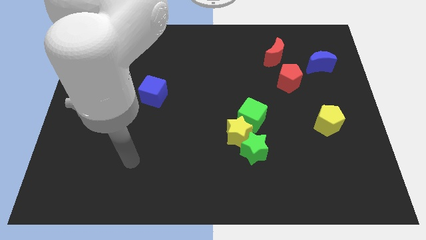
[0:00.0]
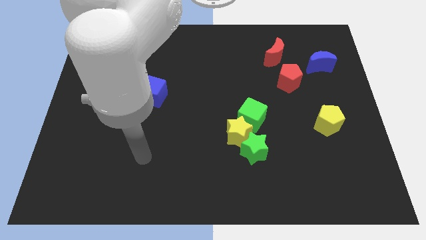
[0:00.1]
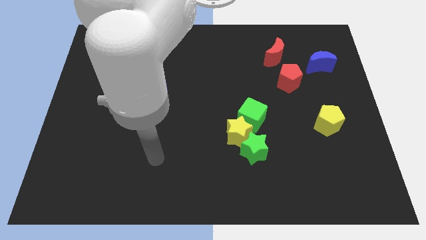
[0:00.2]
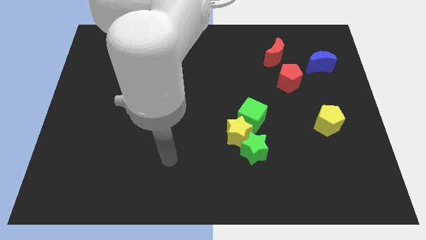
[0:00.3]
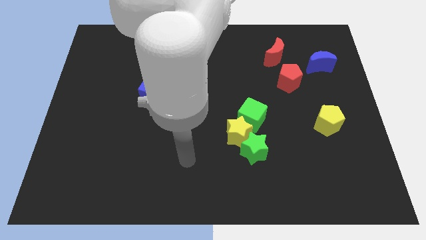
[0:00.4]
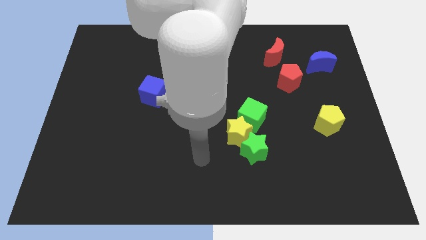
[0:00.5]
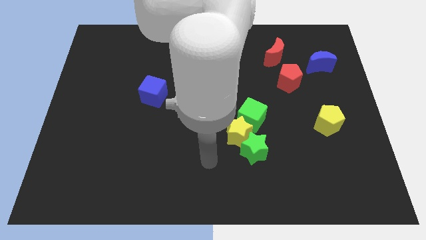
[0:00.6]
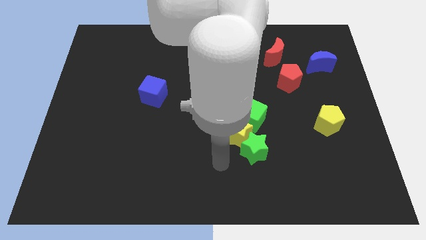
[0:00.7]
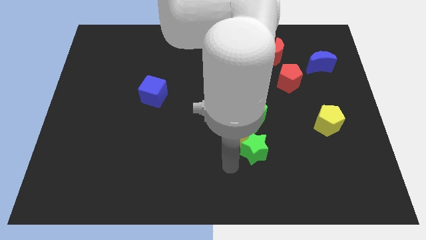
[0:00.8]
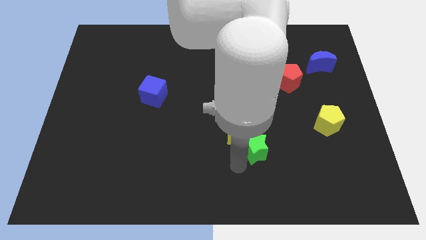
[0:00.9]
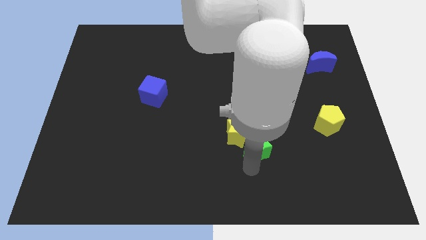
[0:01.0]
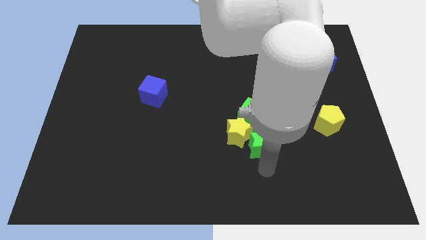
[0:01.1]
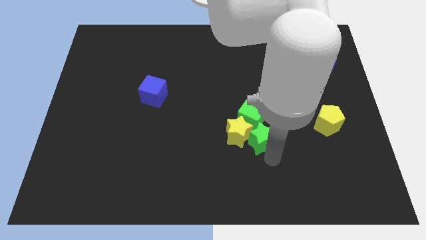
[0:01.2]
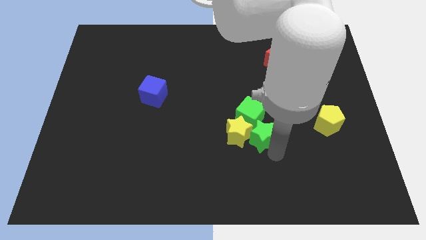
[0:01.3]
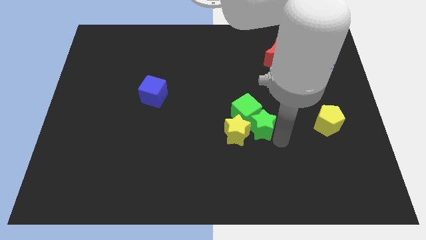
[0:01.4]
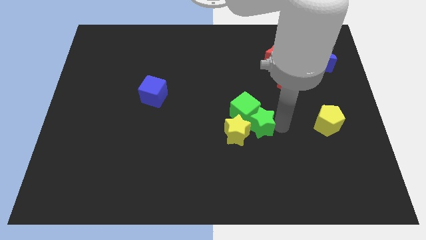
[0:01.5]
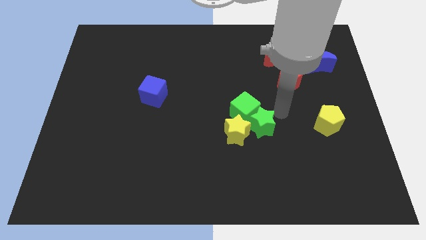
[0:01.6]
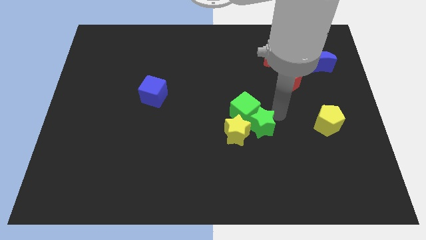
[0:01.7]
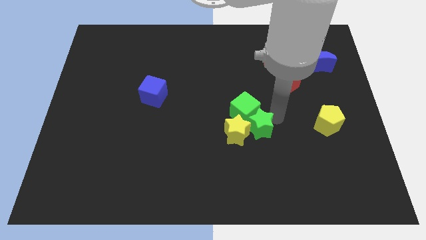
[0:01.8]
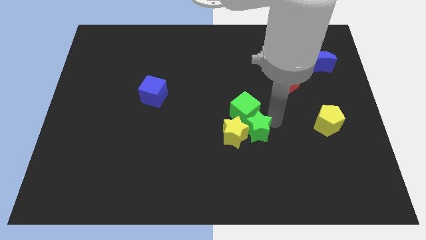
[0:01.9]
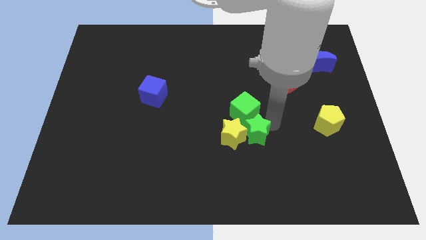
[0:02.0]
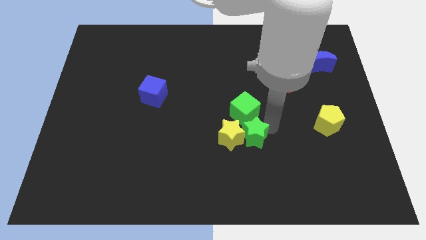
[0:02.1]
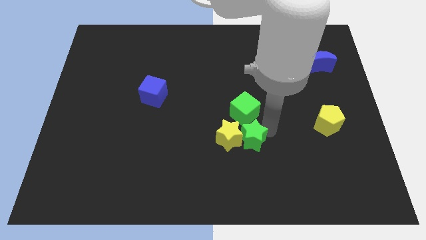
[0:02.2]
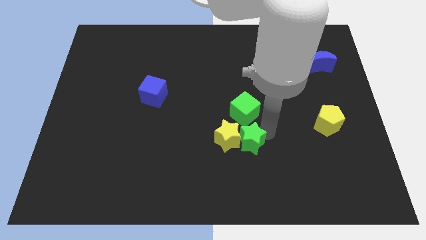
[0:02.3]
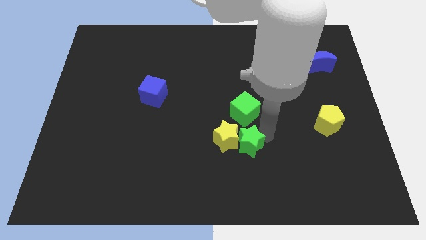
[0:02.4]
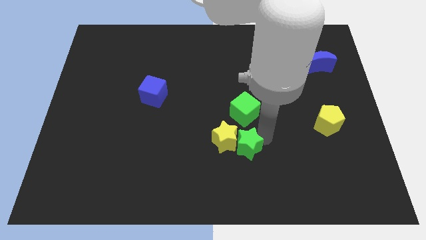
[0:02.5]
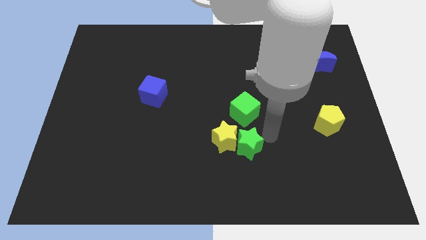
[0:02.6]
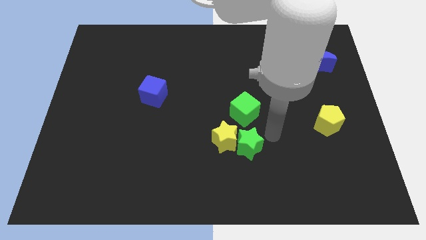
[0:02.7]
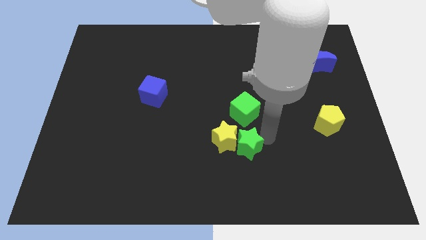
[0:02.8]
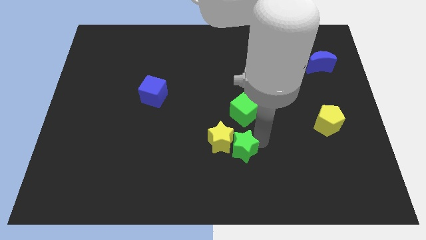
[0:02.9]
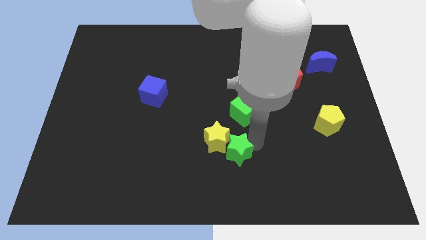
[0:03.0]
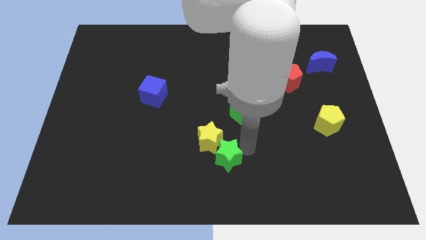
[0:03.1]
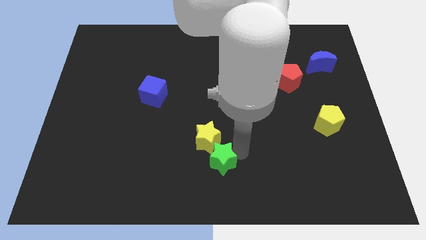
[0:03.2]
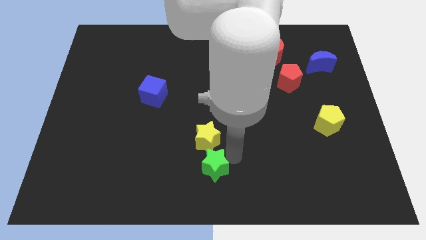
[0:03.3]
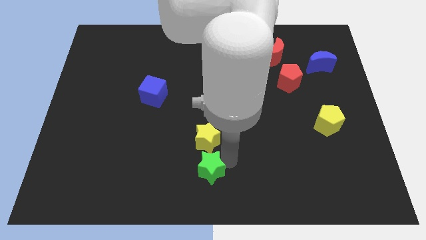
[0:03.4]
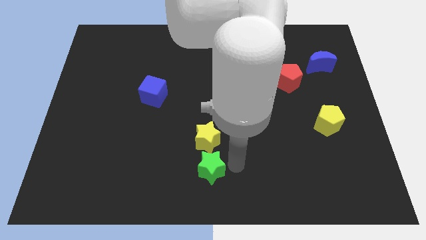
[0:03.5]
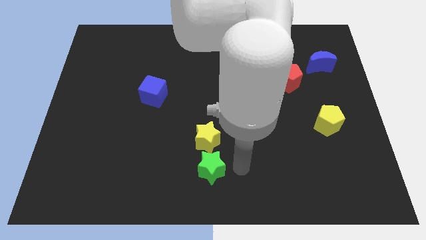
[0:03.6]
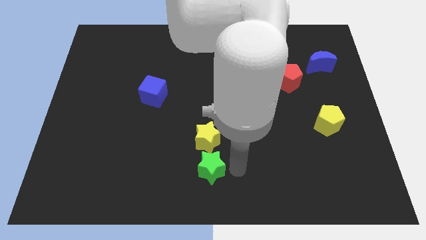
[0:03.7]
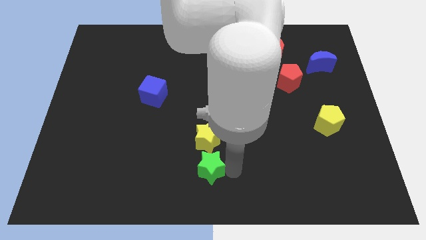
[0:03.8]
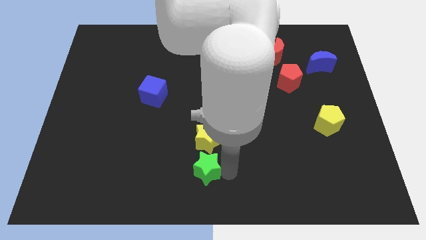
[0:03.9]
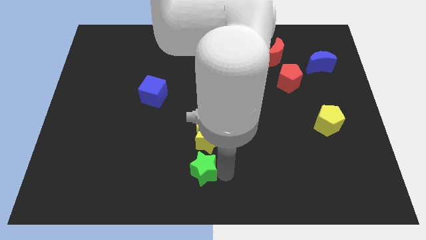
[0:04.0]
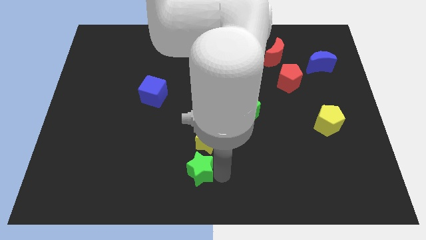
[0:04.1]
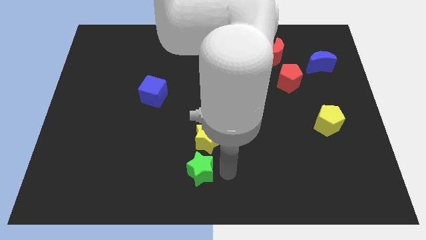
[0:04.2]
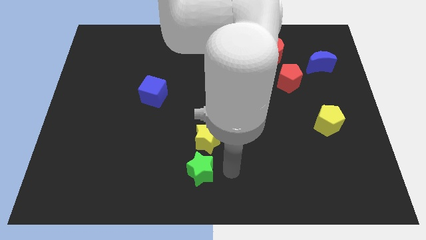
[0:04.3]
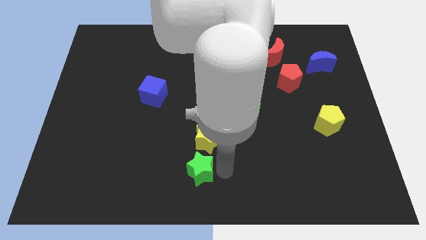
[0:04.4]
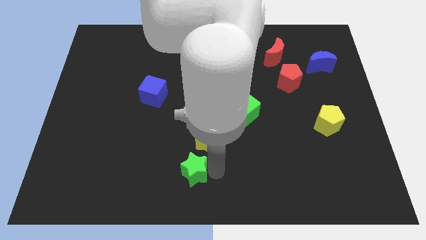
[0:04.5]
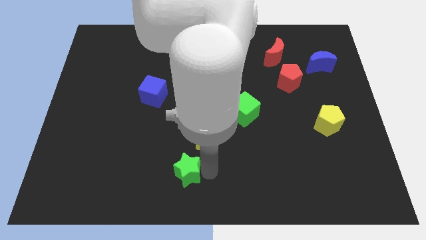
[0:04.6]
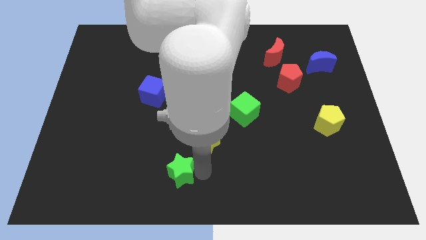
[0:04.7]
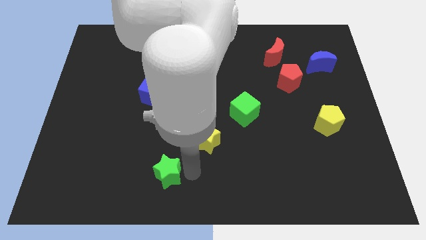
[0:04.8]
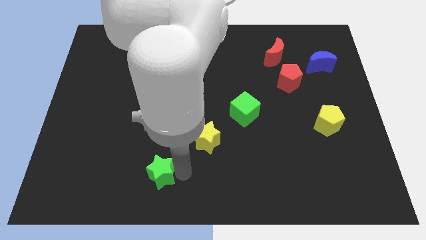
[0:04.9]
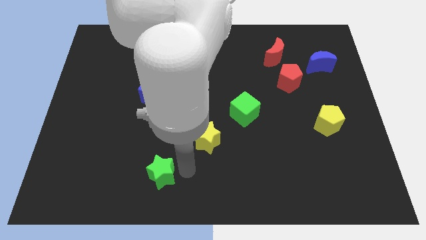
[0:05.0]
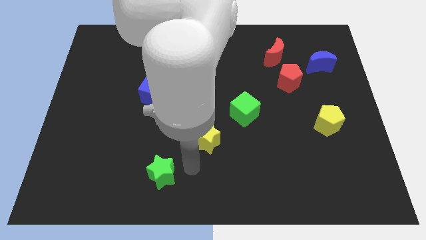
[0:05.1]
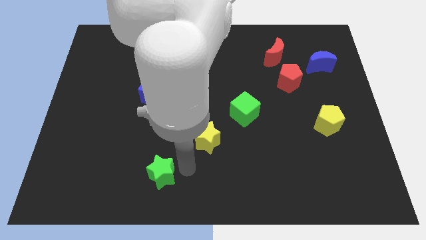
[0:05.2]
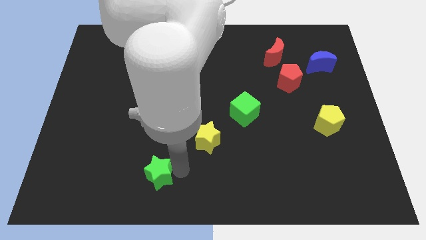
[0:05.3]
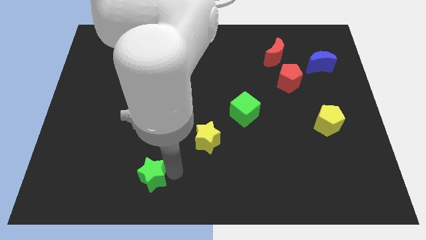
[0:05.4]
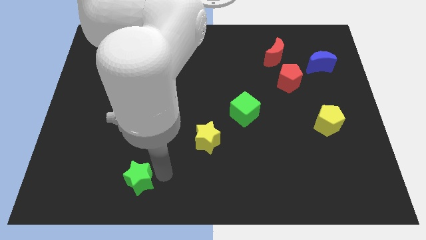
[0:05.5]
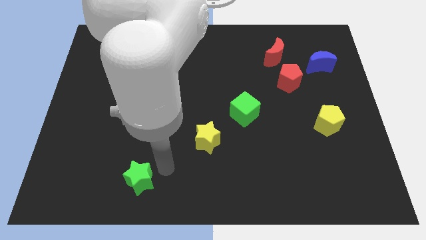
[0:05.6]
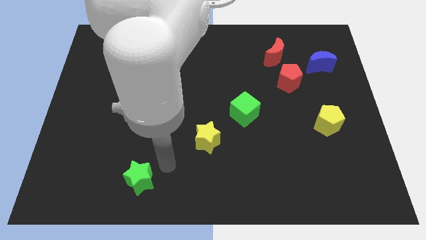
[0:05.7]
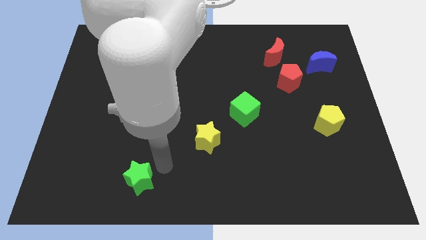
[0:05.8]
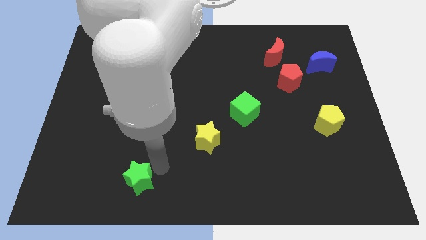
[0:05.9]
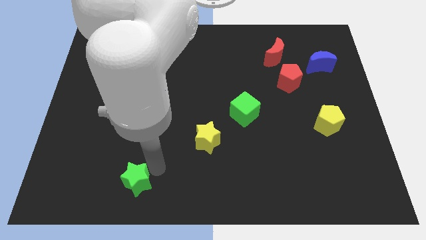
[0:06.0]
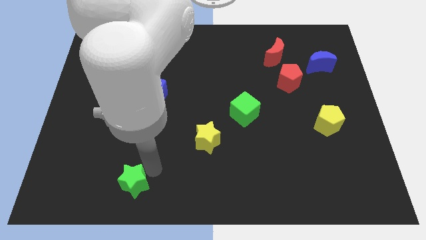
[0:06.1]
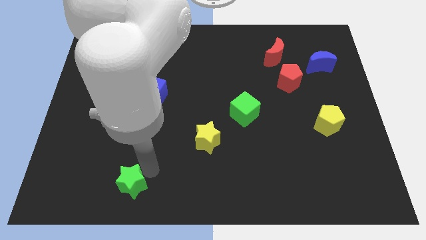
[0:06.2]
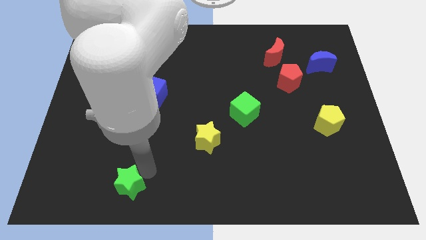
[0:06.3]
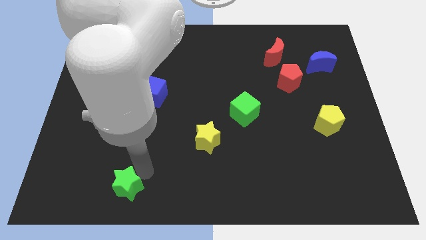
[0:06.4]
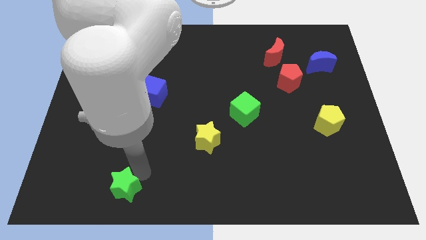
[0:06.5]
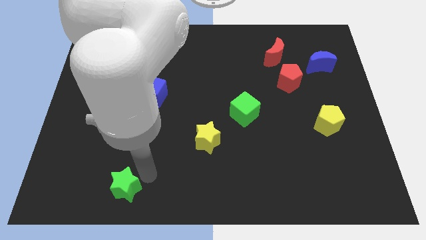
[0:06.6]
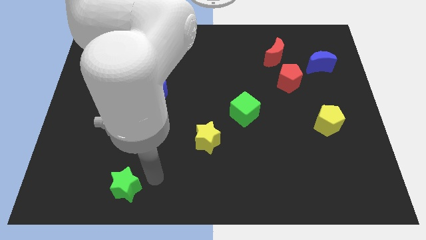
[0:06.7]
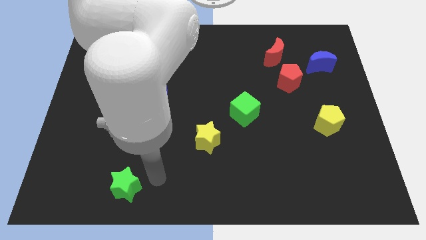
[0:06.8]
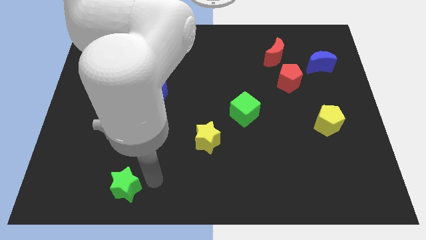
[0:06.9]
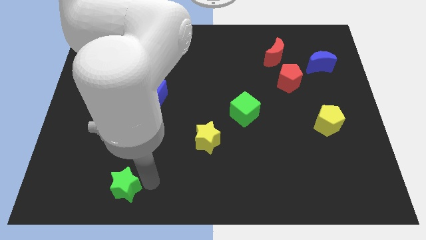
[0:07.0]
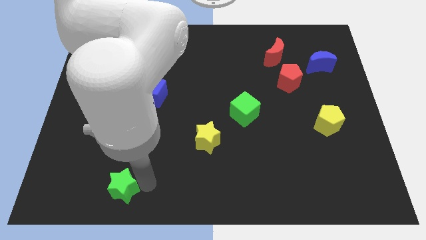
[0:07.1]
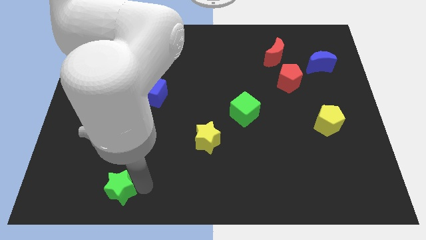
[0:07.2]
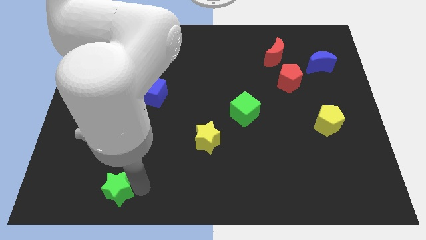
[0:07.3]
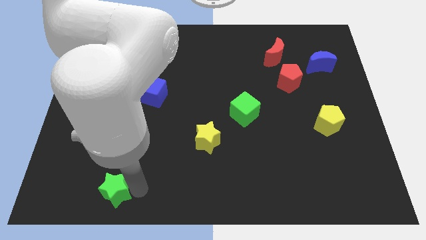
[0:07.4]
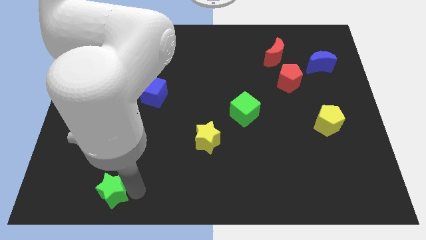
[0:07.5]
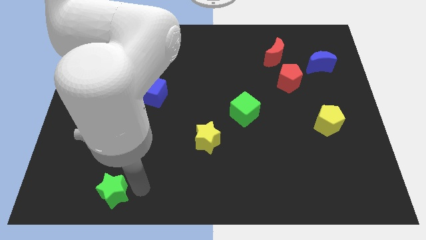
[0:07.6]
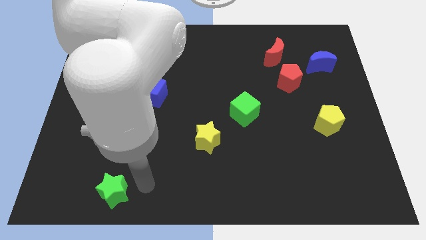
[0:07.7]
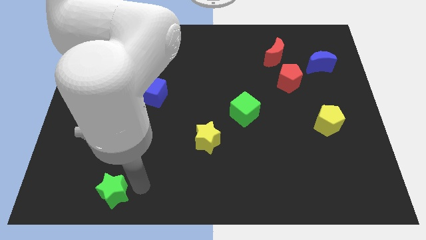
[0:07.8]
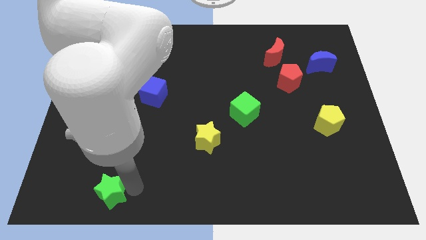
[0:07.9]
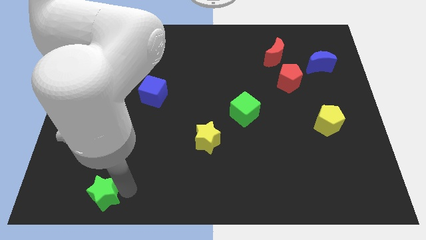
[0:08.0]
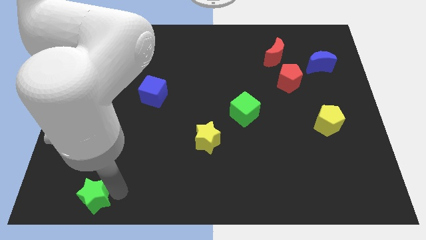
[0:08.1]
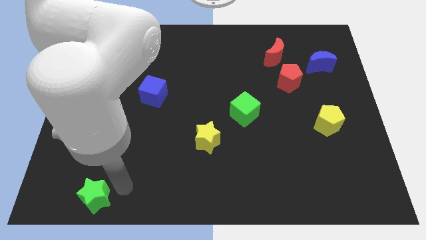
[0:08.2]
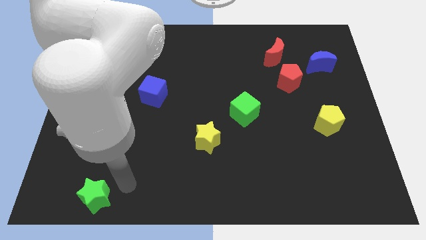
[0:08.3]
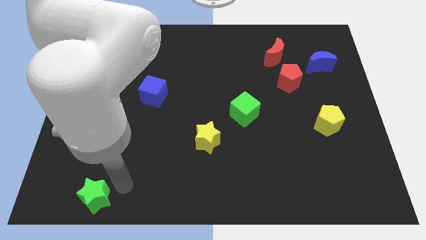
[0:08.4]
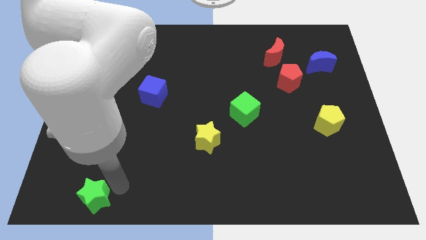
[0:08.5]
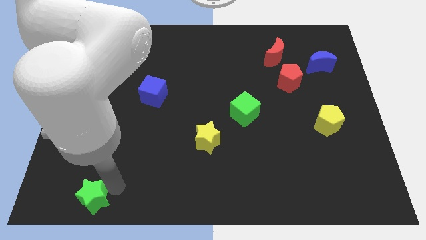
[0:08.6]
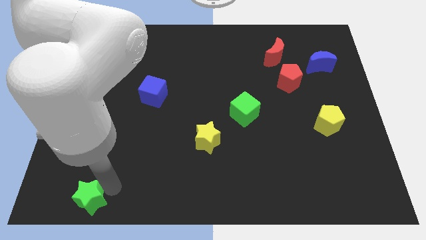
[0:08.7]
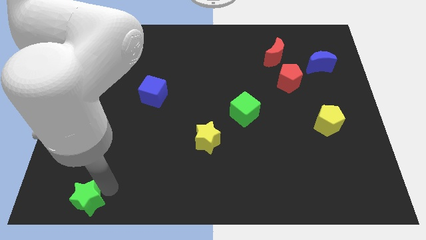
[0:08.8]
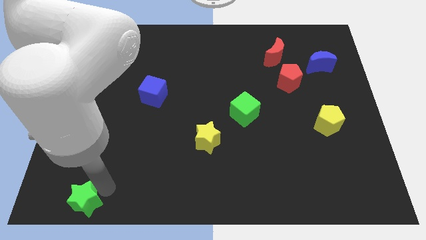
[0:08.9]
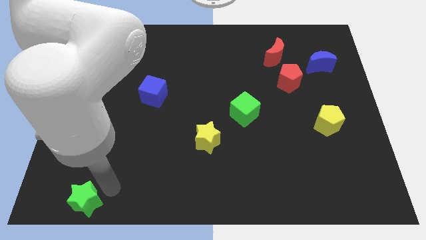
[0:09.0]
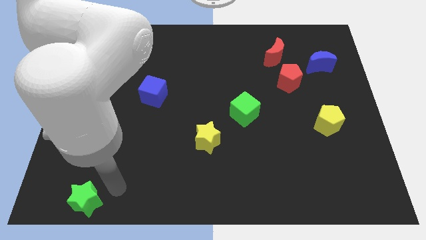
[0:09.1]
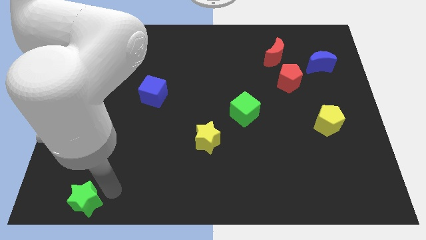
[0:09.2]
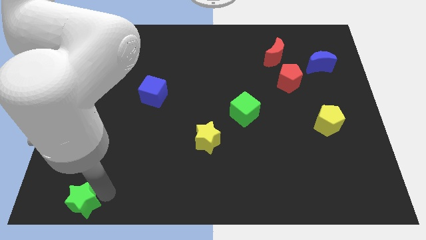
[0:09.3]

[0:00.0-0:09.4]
put the green star to the bottom left
